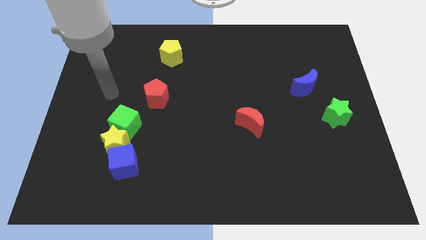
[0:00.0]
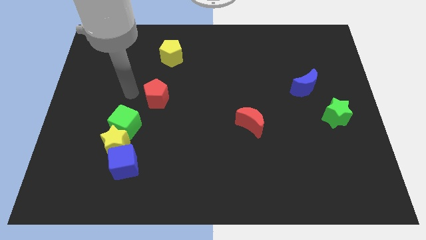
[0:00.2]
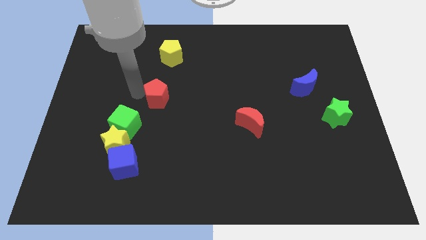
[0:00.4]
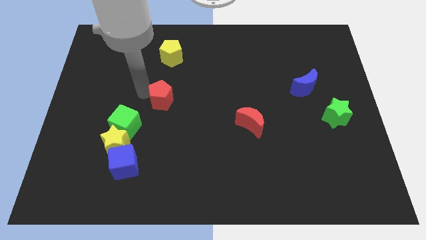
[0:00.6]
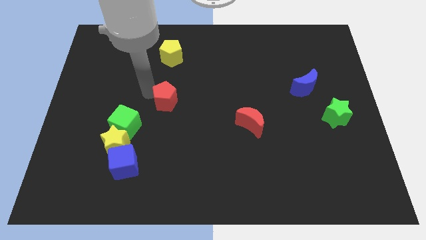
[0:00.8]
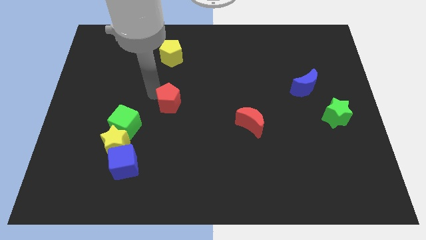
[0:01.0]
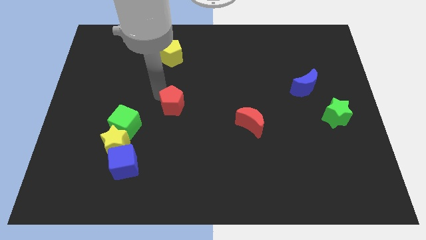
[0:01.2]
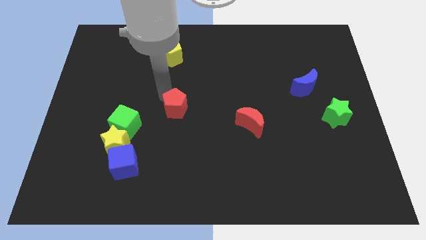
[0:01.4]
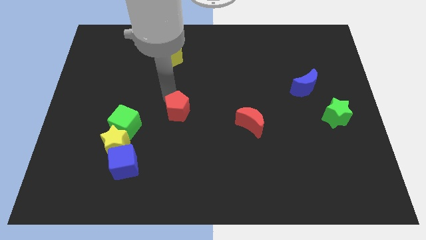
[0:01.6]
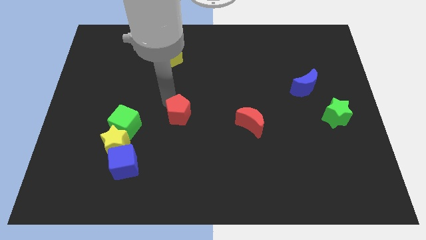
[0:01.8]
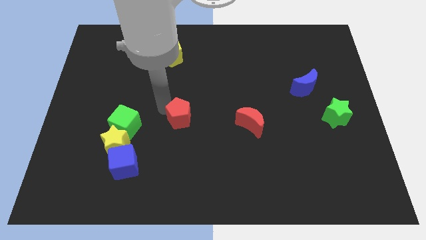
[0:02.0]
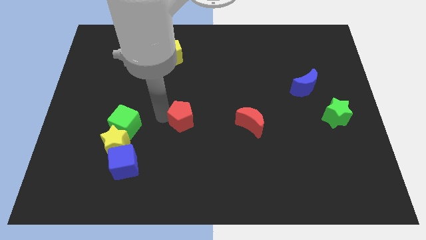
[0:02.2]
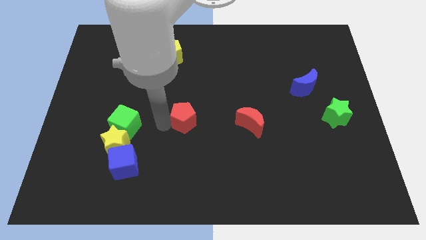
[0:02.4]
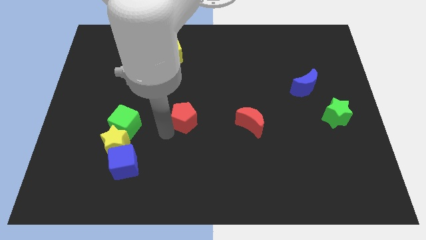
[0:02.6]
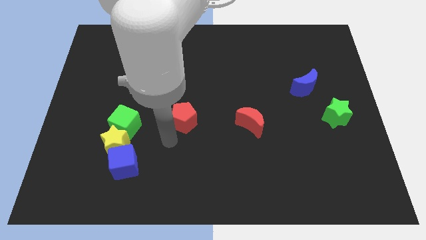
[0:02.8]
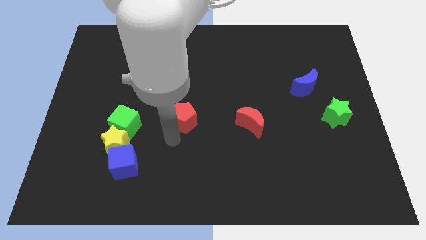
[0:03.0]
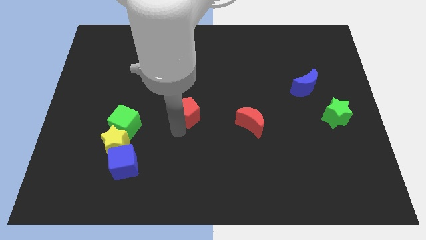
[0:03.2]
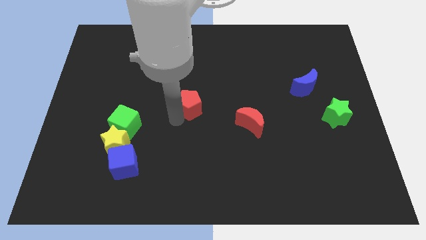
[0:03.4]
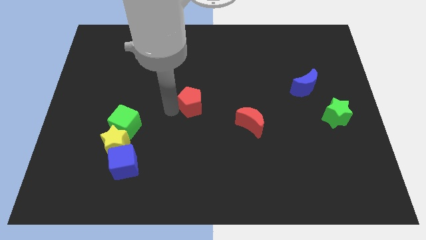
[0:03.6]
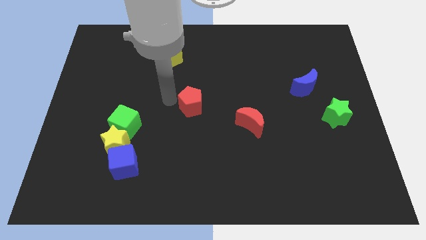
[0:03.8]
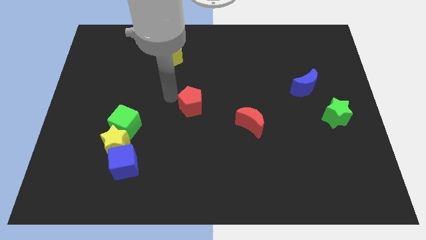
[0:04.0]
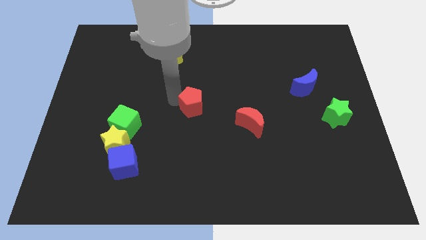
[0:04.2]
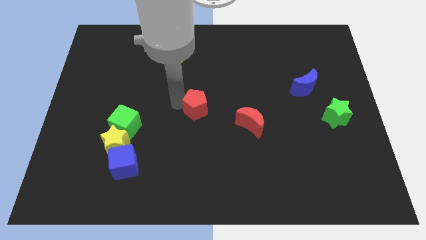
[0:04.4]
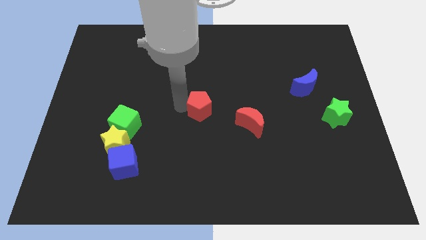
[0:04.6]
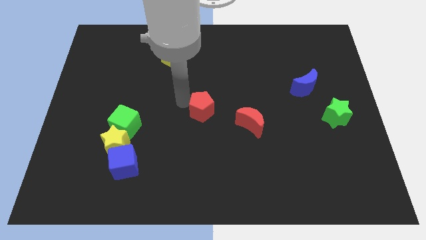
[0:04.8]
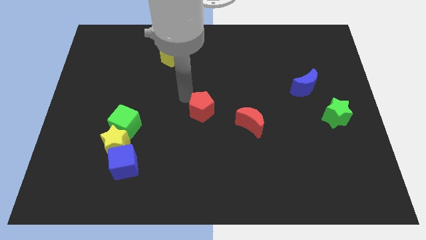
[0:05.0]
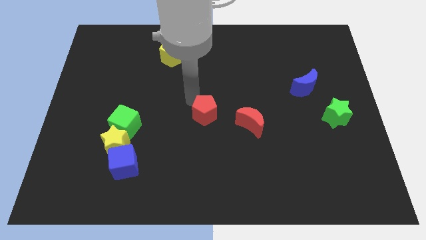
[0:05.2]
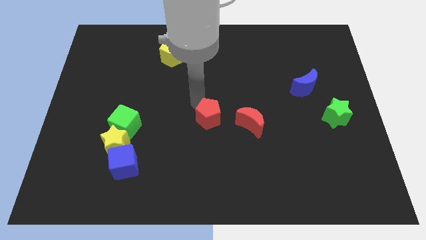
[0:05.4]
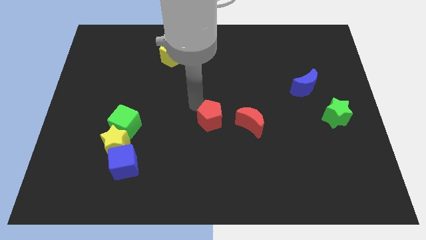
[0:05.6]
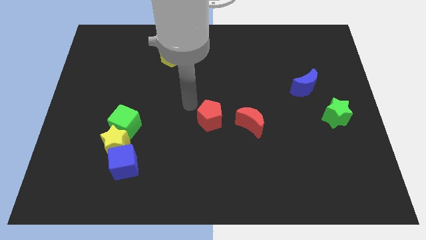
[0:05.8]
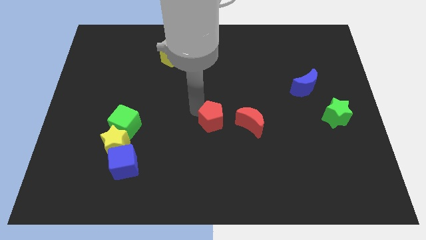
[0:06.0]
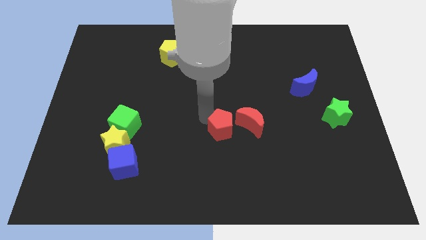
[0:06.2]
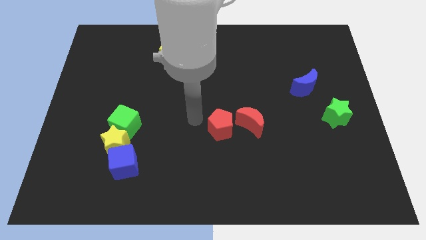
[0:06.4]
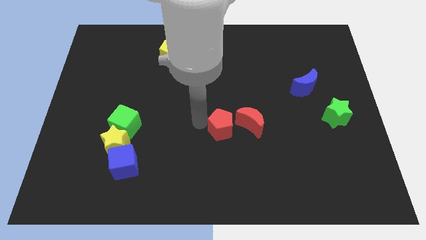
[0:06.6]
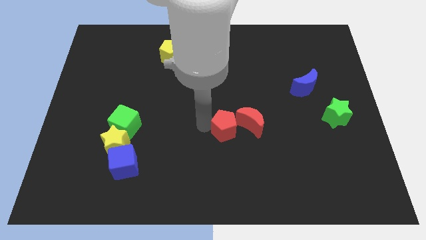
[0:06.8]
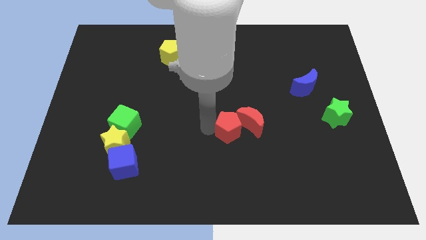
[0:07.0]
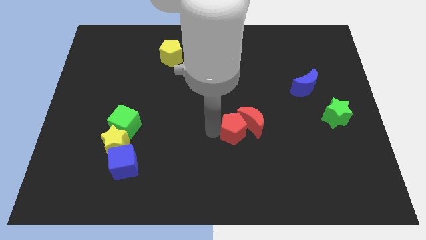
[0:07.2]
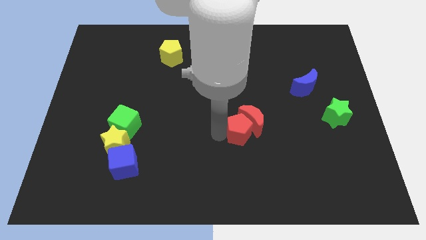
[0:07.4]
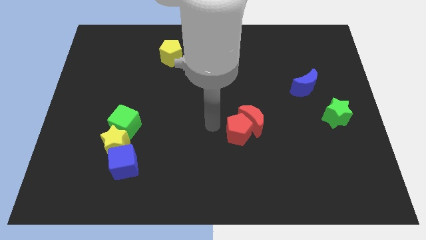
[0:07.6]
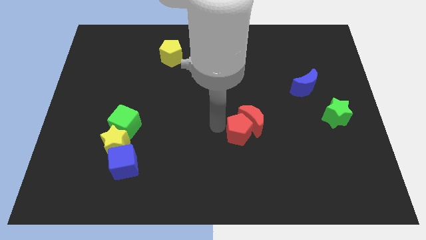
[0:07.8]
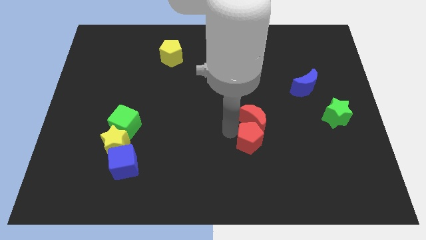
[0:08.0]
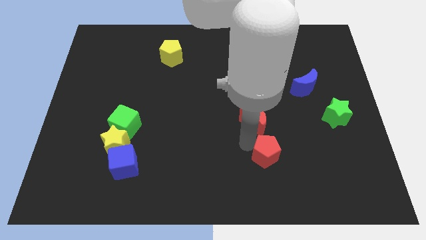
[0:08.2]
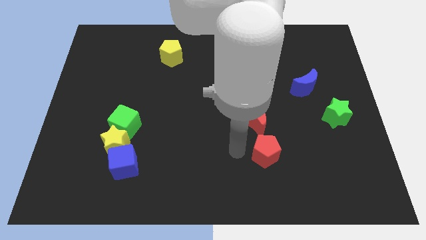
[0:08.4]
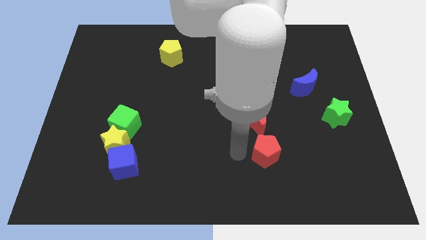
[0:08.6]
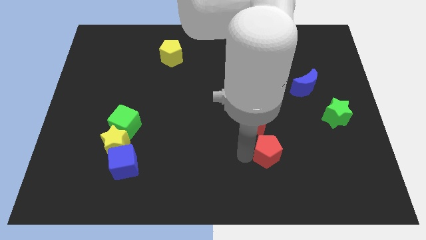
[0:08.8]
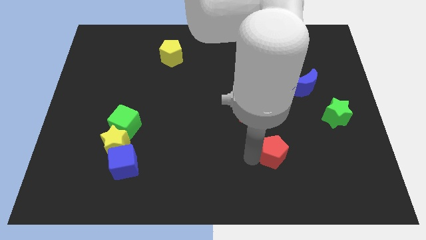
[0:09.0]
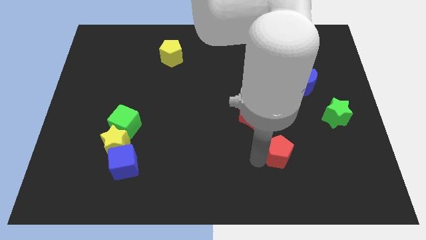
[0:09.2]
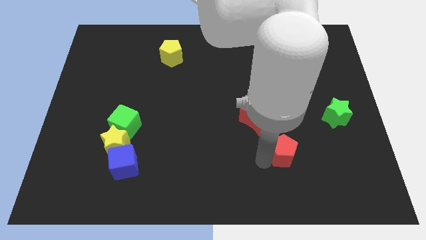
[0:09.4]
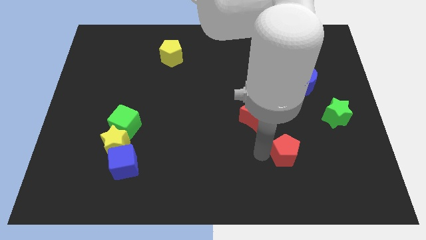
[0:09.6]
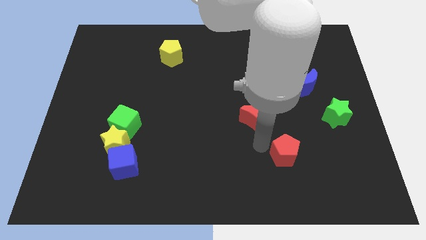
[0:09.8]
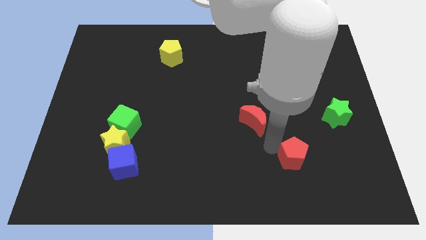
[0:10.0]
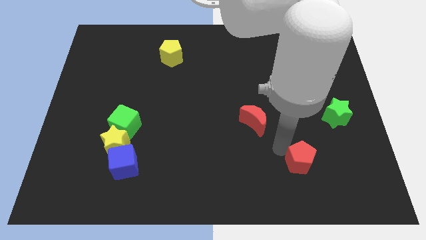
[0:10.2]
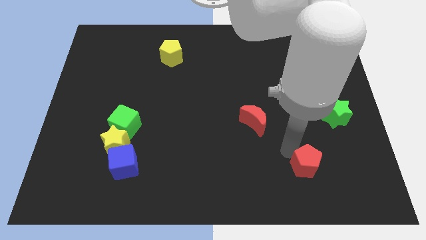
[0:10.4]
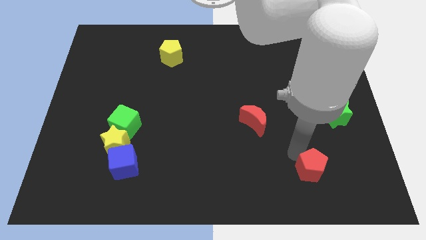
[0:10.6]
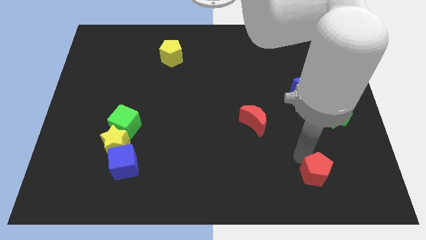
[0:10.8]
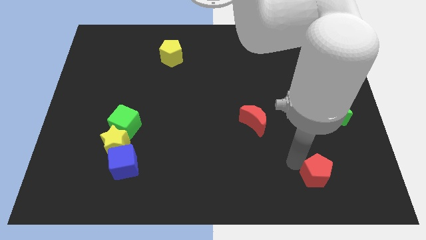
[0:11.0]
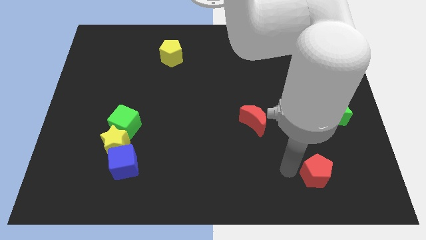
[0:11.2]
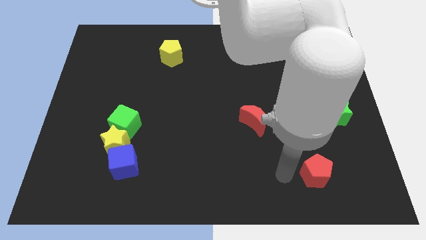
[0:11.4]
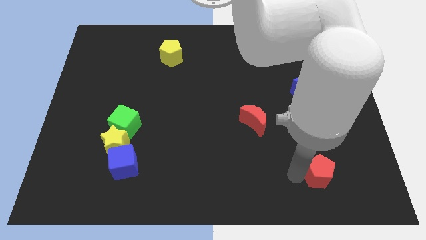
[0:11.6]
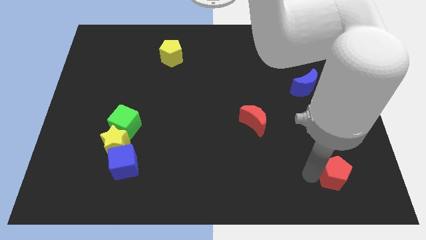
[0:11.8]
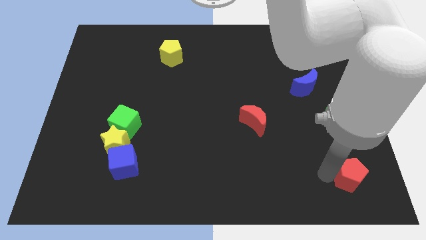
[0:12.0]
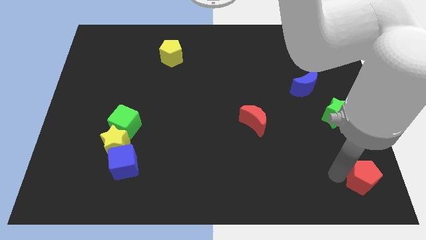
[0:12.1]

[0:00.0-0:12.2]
push the red pentagon to the bottom right

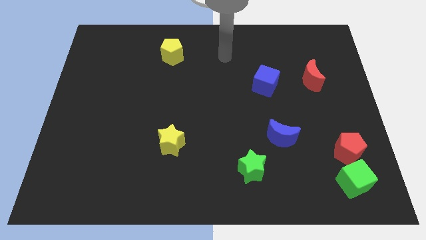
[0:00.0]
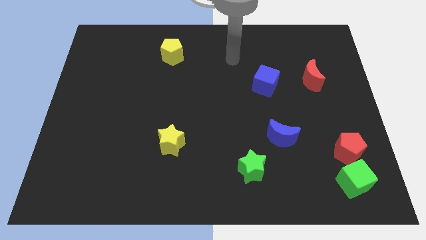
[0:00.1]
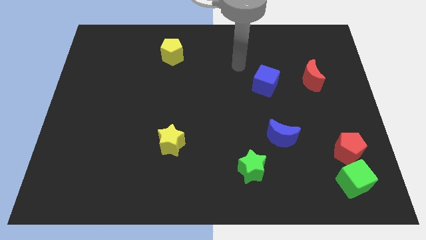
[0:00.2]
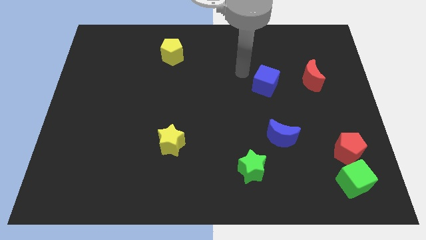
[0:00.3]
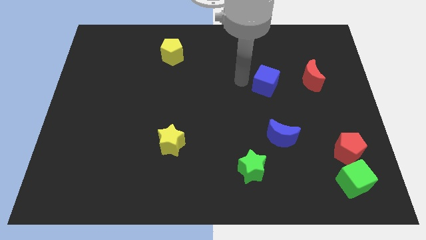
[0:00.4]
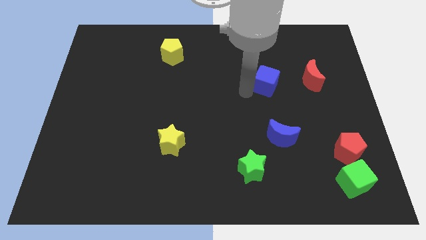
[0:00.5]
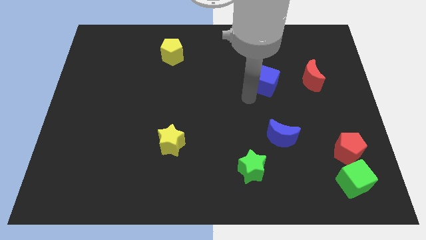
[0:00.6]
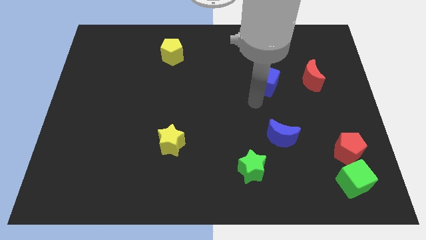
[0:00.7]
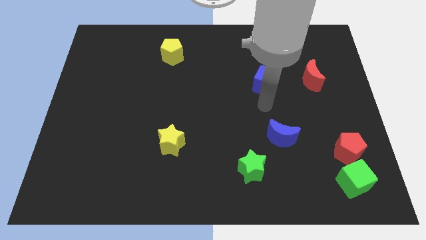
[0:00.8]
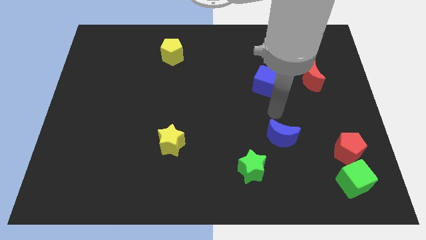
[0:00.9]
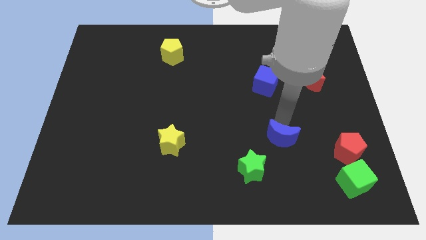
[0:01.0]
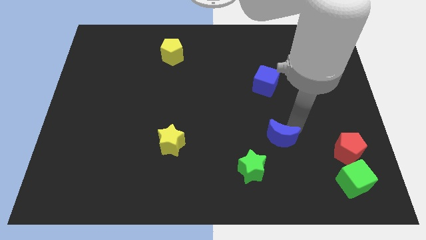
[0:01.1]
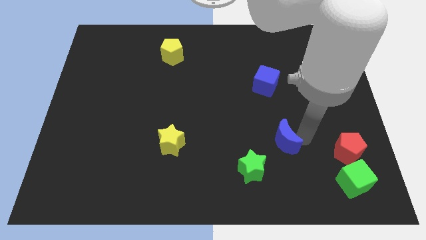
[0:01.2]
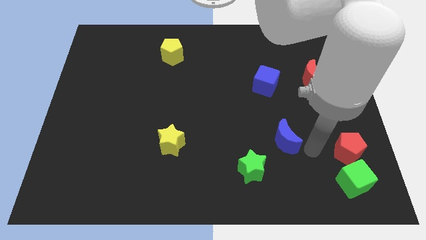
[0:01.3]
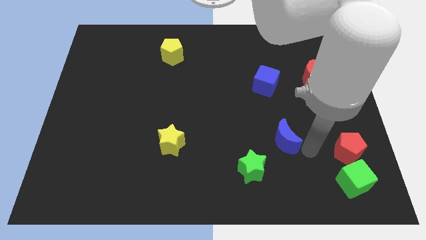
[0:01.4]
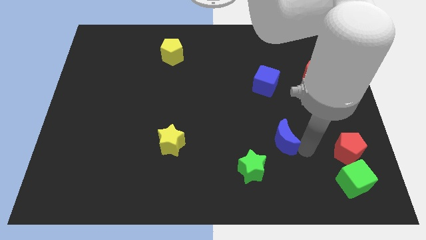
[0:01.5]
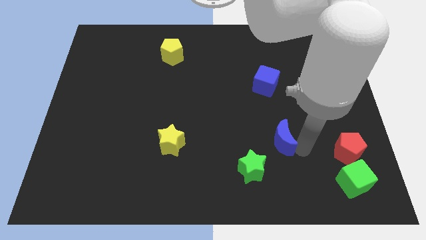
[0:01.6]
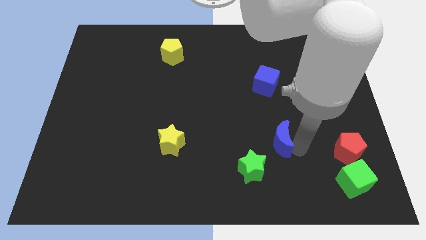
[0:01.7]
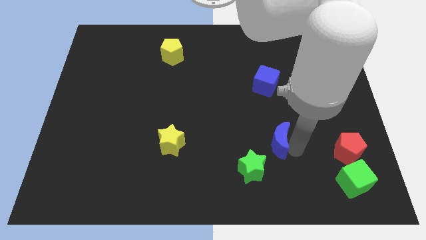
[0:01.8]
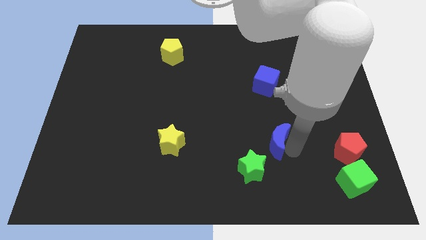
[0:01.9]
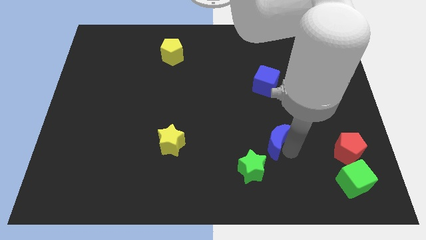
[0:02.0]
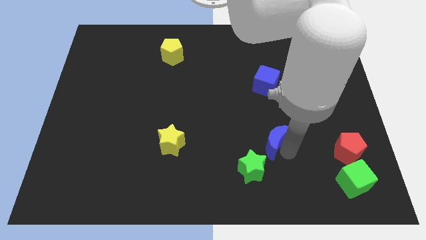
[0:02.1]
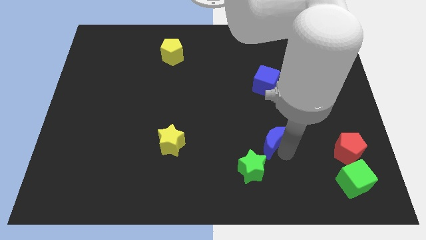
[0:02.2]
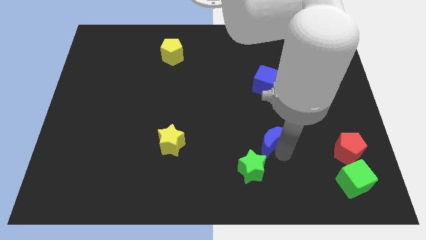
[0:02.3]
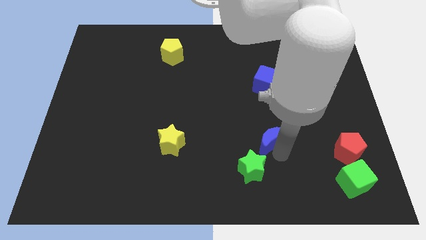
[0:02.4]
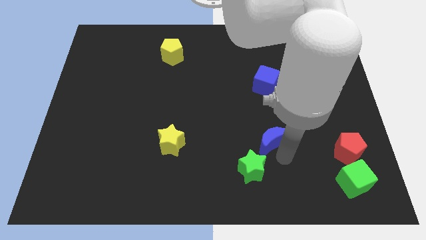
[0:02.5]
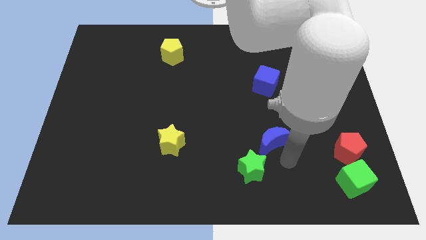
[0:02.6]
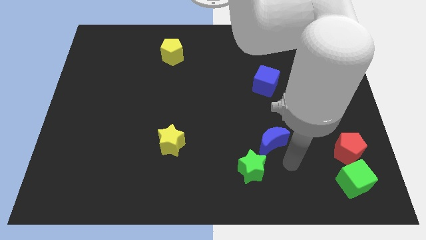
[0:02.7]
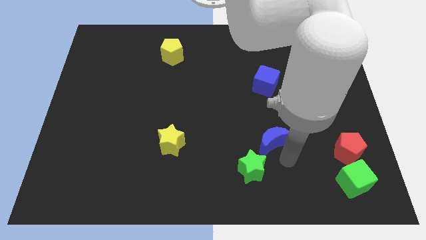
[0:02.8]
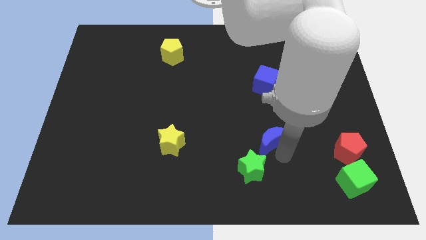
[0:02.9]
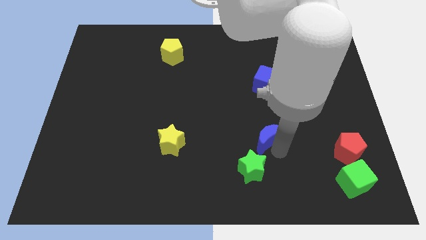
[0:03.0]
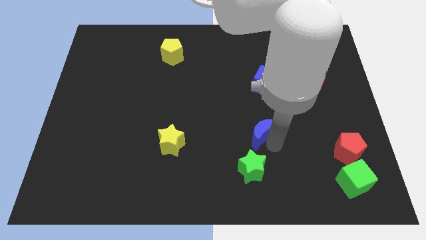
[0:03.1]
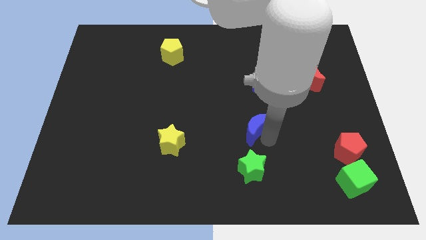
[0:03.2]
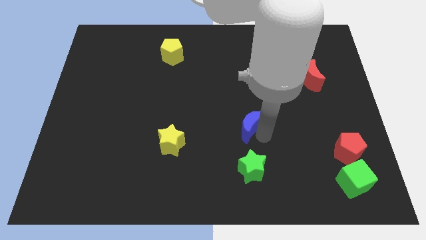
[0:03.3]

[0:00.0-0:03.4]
move the blue moon to the middle
